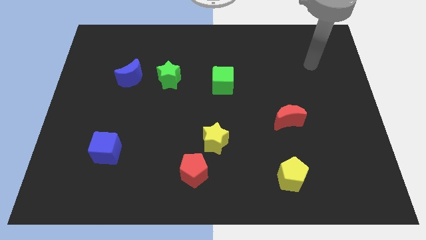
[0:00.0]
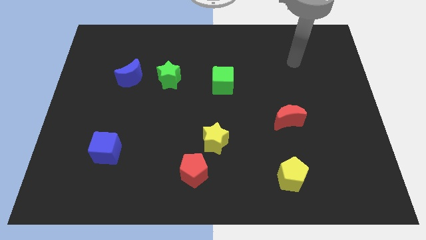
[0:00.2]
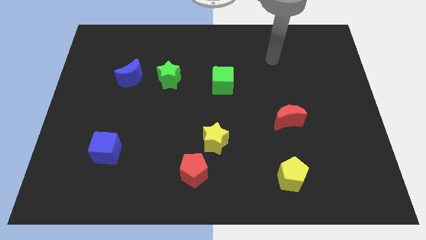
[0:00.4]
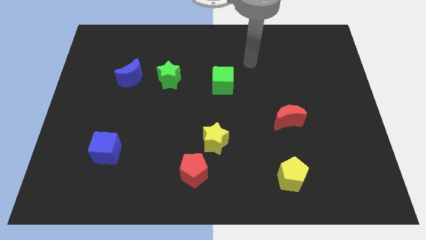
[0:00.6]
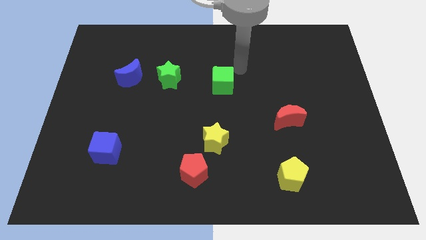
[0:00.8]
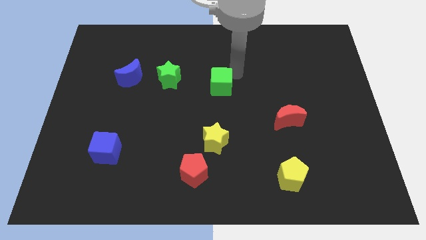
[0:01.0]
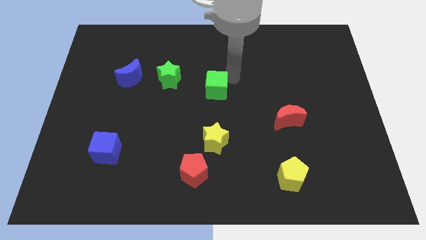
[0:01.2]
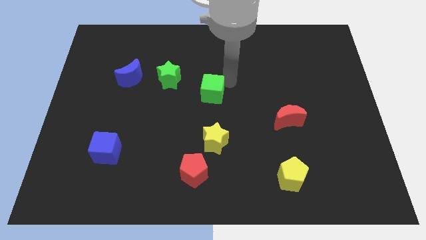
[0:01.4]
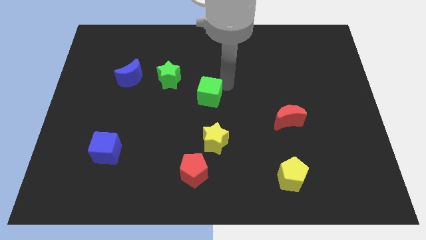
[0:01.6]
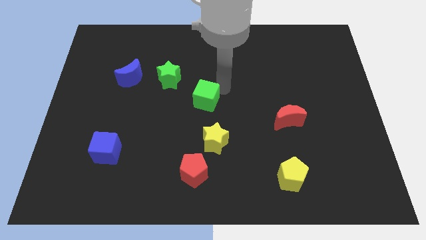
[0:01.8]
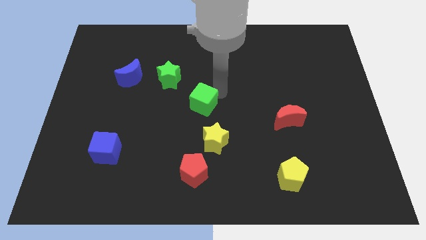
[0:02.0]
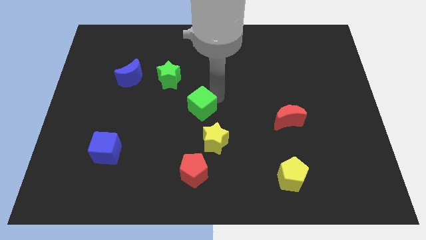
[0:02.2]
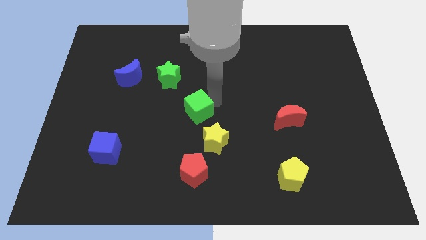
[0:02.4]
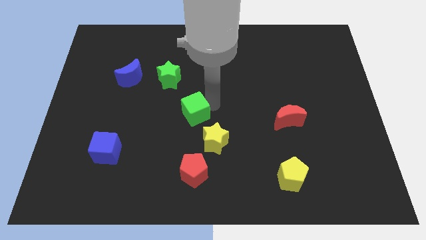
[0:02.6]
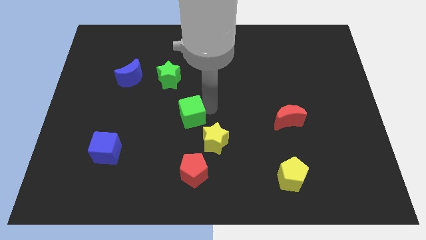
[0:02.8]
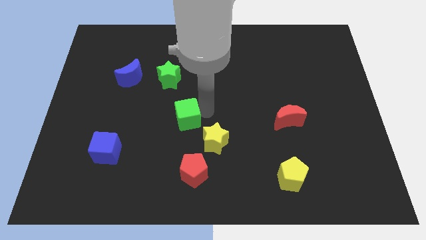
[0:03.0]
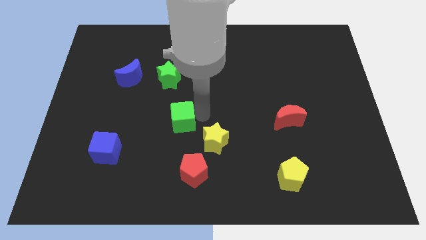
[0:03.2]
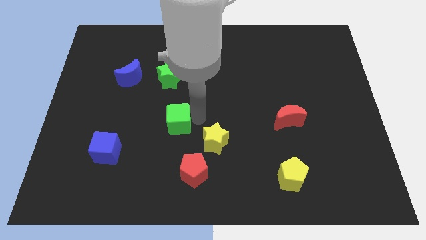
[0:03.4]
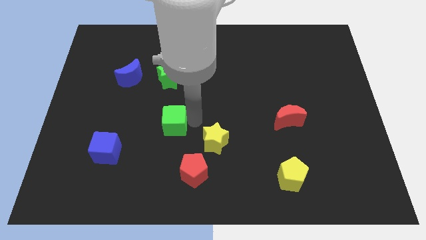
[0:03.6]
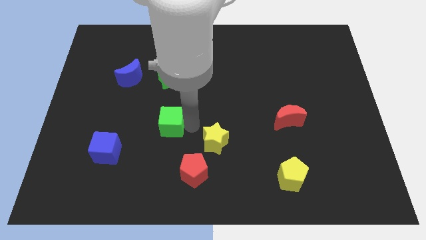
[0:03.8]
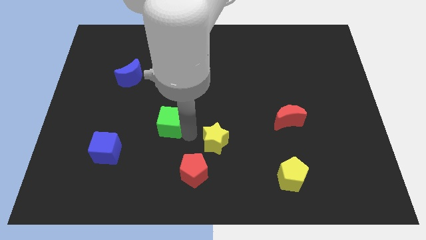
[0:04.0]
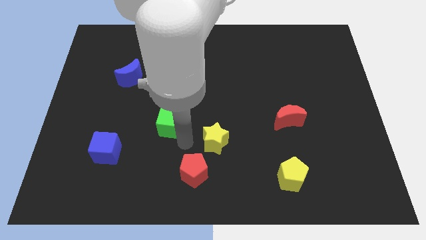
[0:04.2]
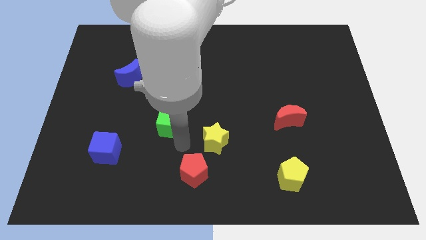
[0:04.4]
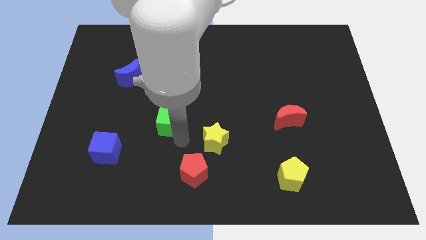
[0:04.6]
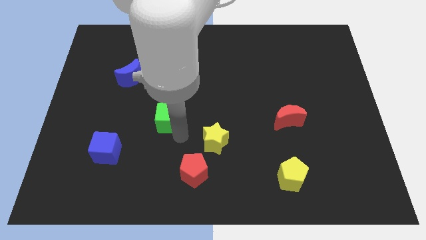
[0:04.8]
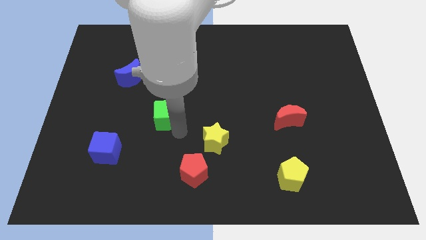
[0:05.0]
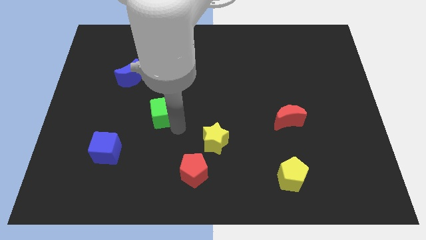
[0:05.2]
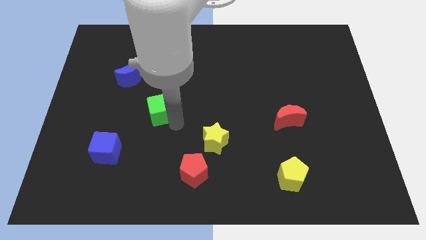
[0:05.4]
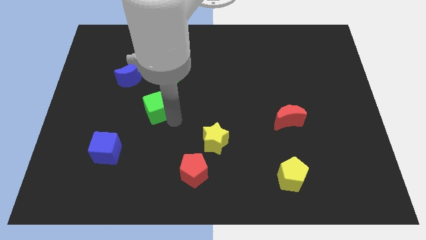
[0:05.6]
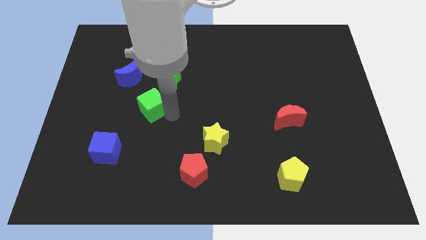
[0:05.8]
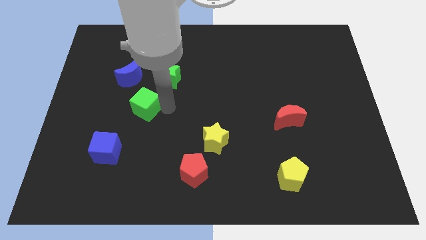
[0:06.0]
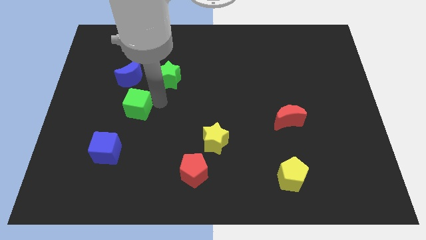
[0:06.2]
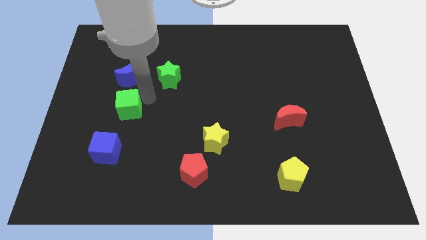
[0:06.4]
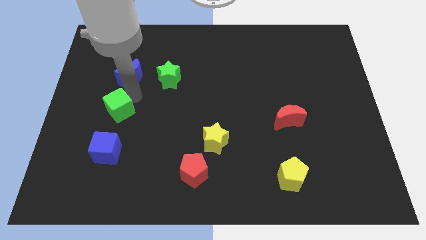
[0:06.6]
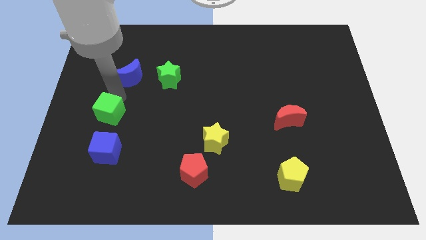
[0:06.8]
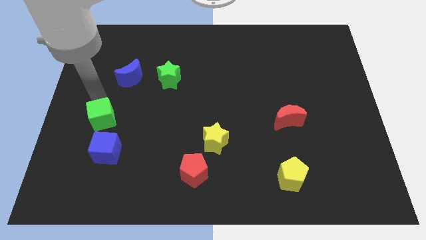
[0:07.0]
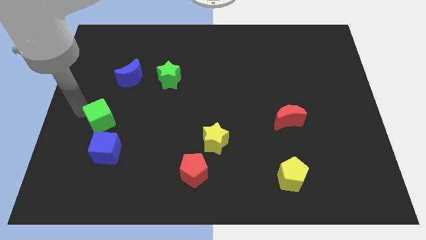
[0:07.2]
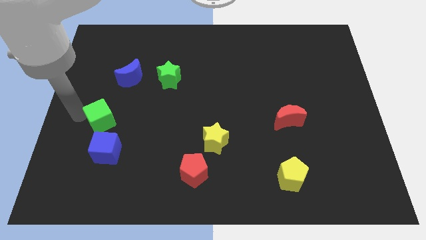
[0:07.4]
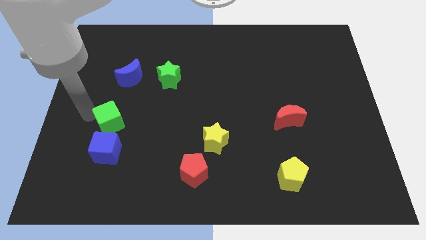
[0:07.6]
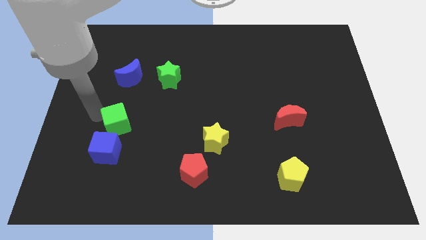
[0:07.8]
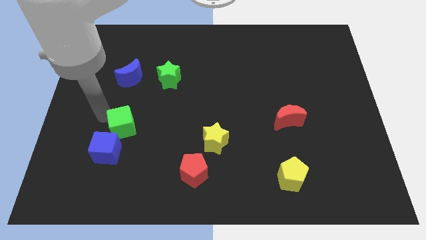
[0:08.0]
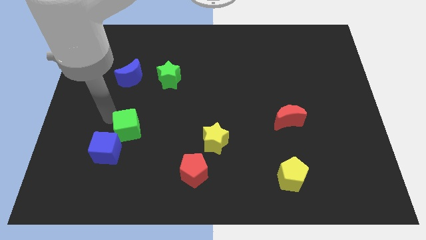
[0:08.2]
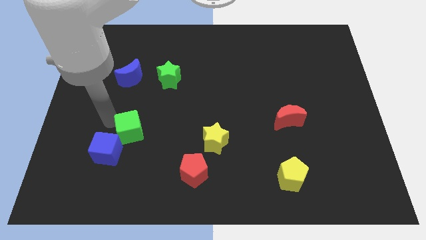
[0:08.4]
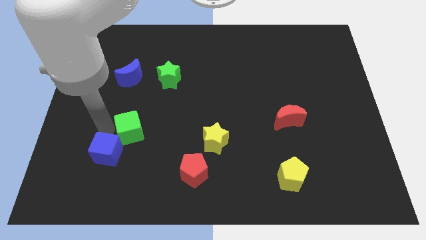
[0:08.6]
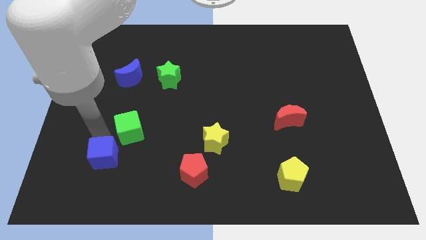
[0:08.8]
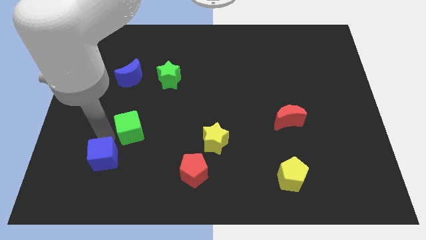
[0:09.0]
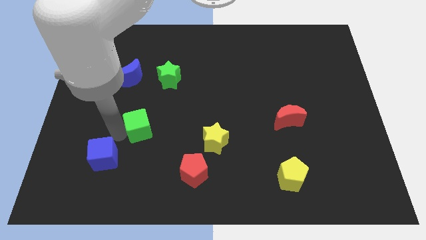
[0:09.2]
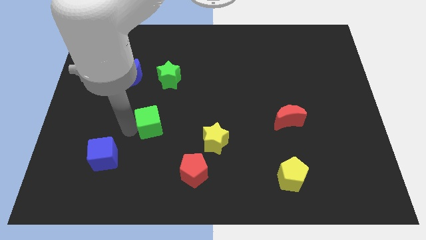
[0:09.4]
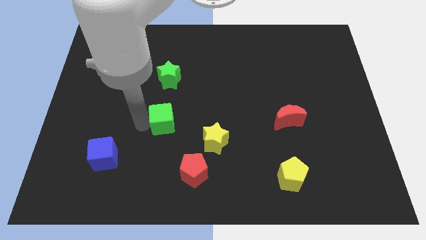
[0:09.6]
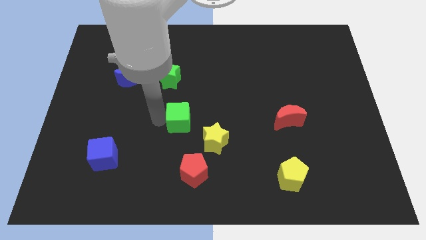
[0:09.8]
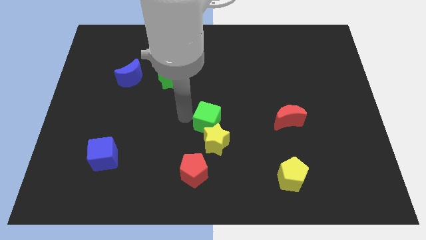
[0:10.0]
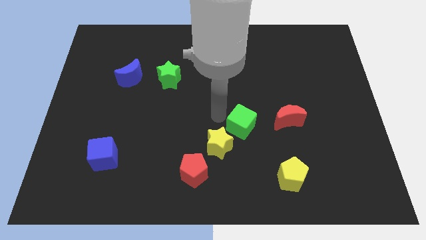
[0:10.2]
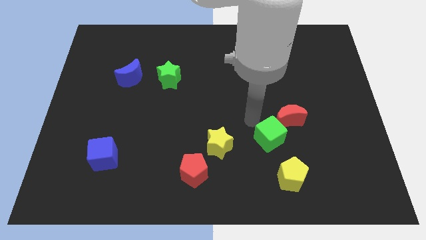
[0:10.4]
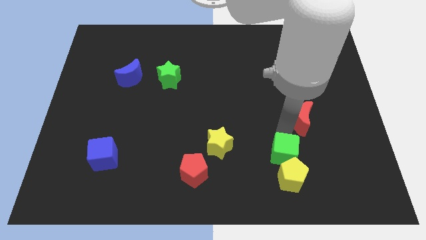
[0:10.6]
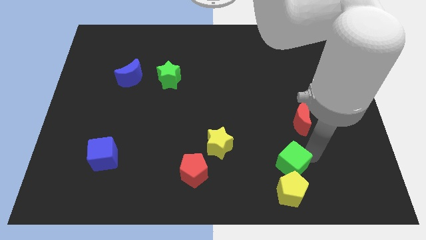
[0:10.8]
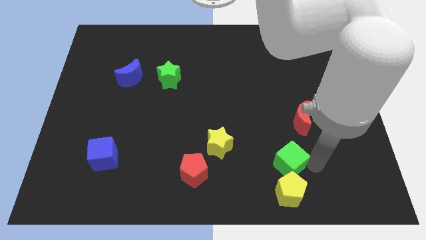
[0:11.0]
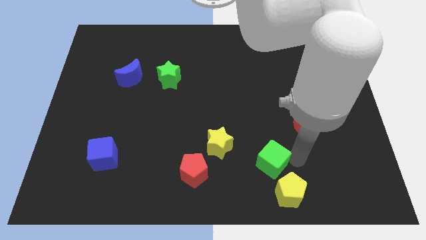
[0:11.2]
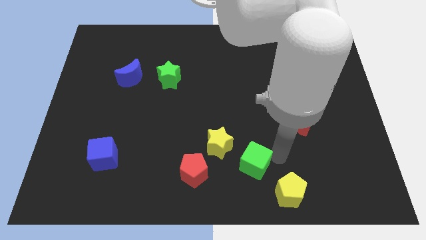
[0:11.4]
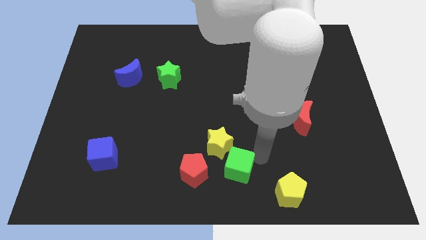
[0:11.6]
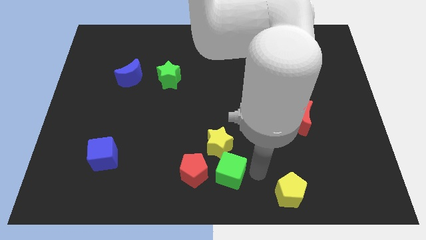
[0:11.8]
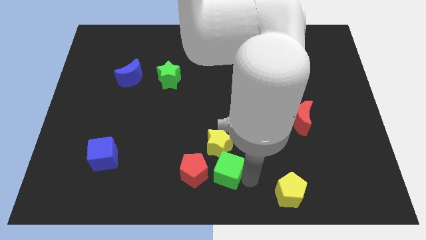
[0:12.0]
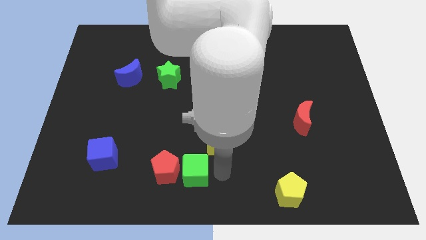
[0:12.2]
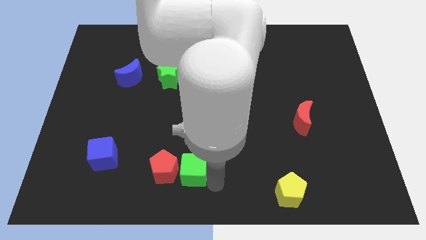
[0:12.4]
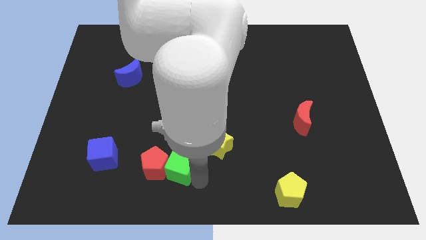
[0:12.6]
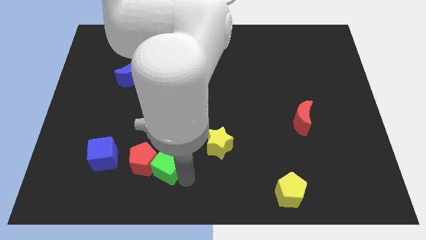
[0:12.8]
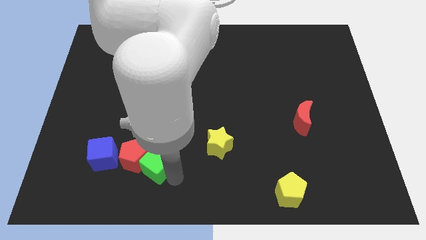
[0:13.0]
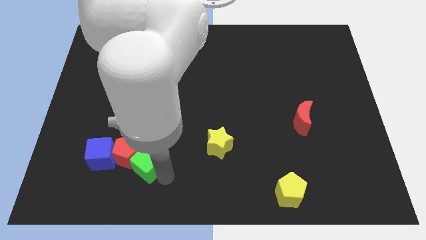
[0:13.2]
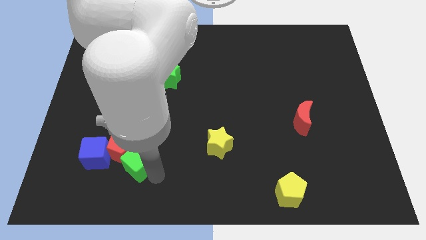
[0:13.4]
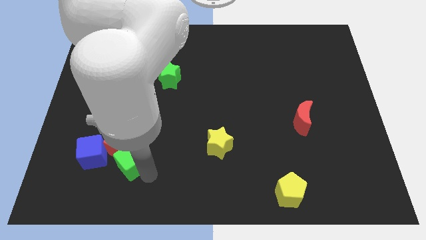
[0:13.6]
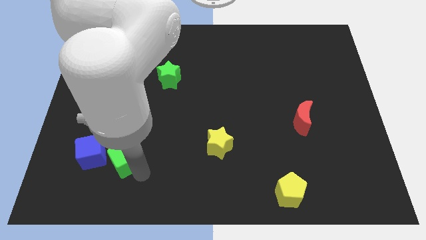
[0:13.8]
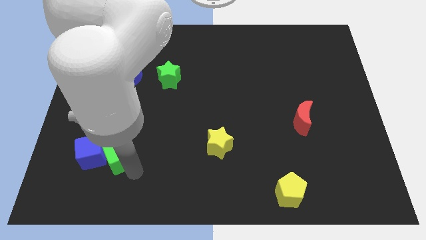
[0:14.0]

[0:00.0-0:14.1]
push the green cube next to the blue cube

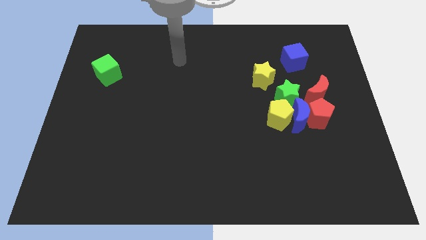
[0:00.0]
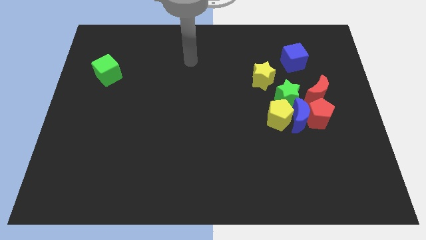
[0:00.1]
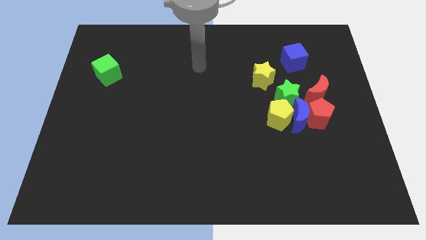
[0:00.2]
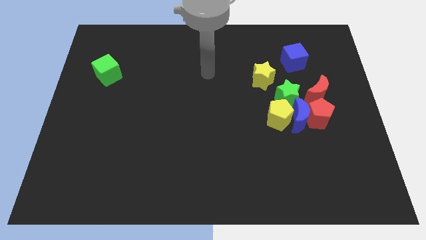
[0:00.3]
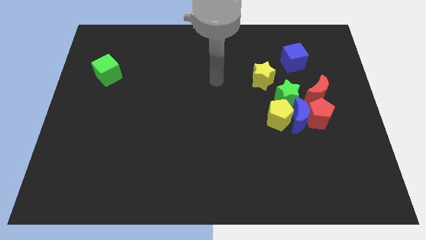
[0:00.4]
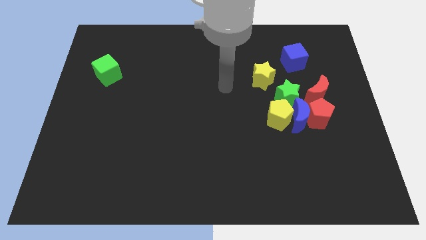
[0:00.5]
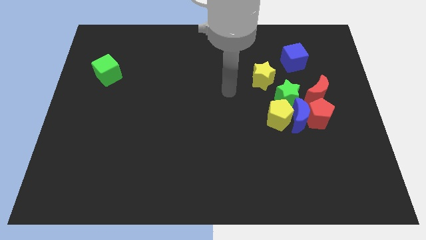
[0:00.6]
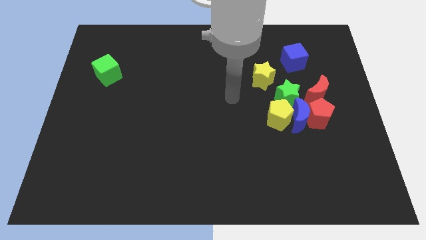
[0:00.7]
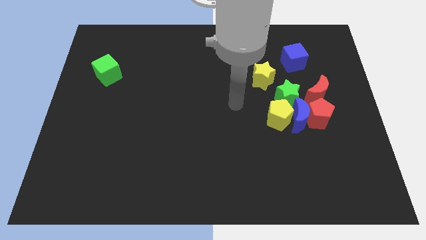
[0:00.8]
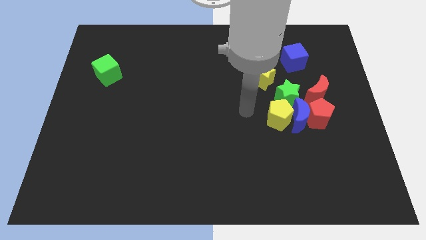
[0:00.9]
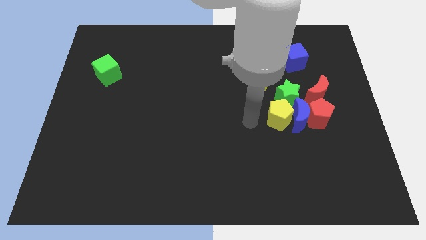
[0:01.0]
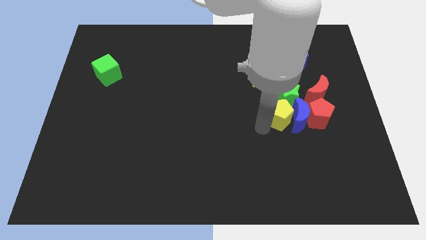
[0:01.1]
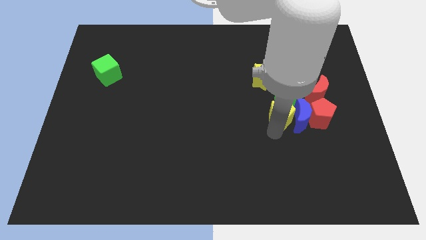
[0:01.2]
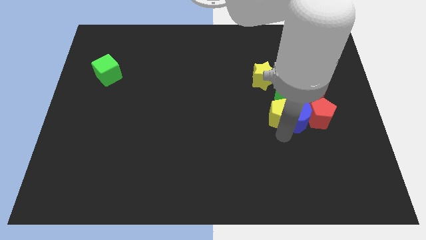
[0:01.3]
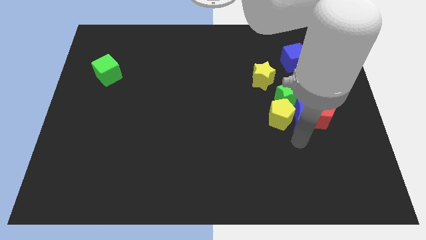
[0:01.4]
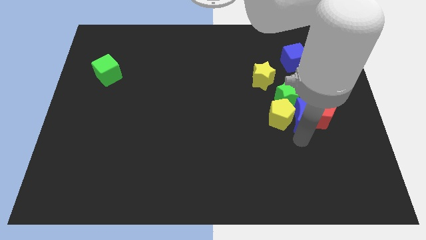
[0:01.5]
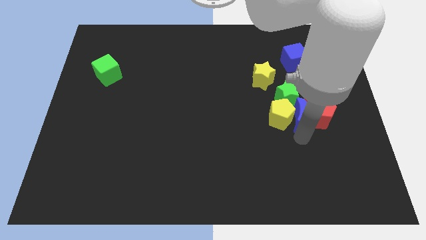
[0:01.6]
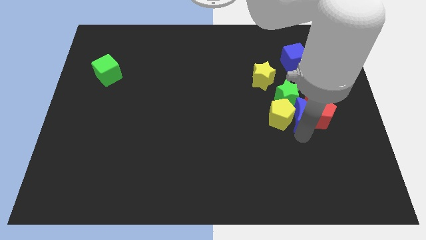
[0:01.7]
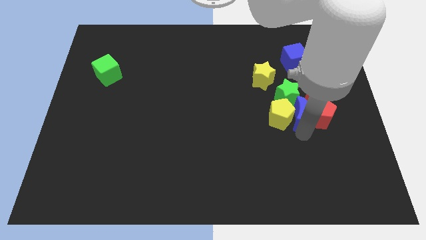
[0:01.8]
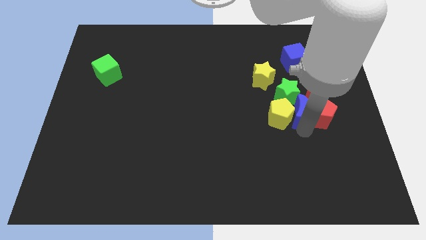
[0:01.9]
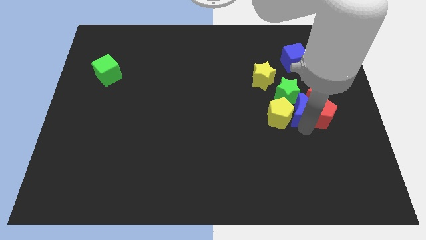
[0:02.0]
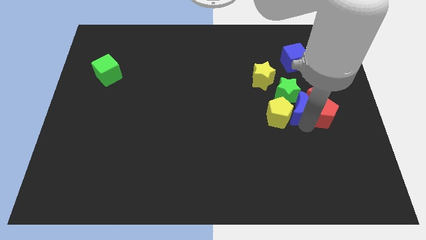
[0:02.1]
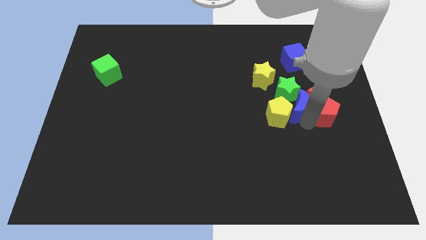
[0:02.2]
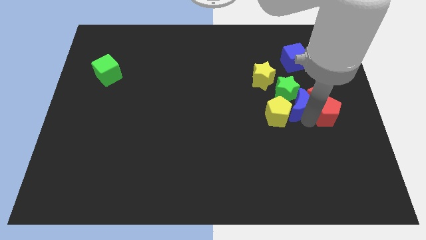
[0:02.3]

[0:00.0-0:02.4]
put the blue moon towards the red moon
